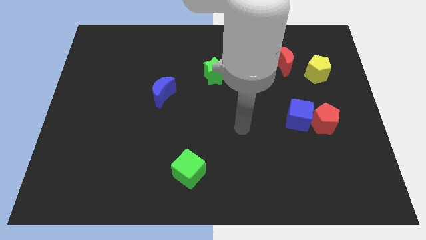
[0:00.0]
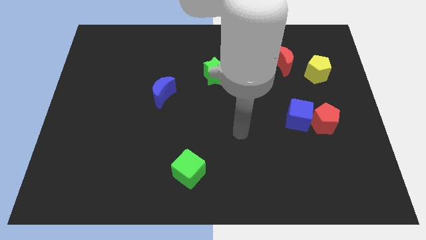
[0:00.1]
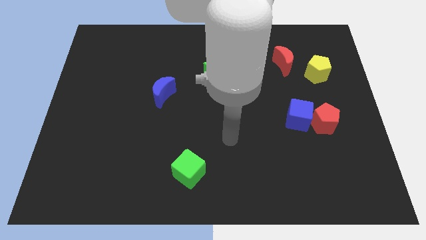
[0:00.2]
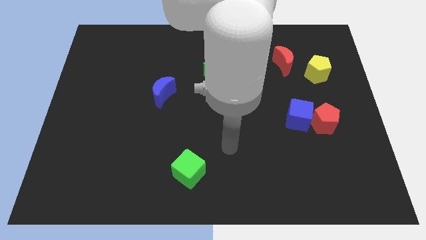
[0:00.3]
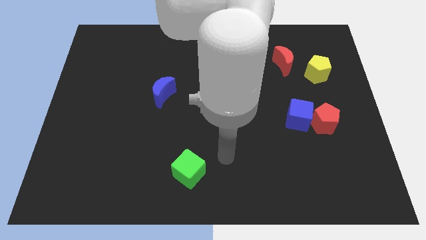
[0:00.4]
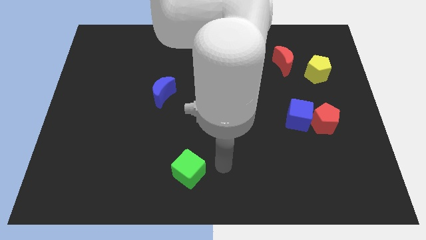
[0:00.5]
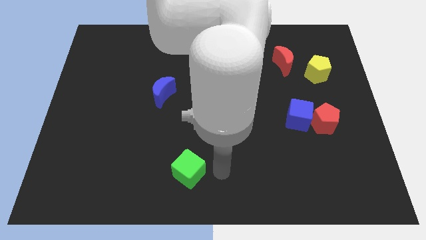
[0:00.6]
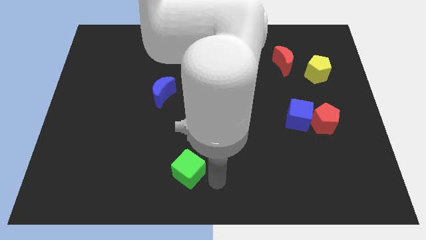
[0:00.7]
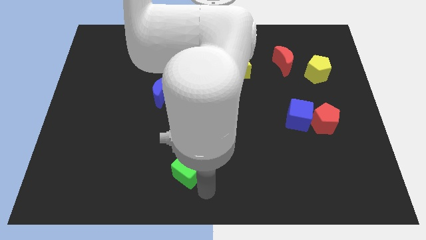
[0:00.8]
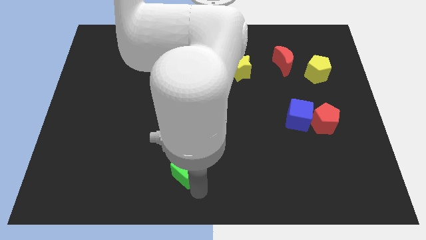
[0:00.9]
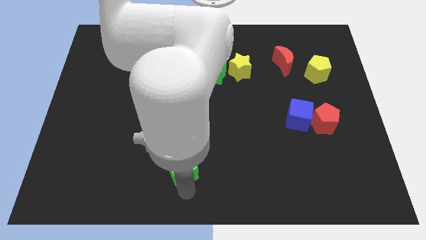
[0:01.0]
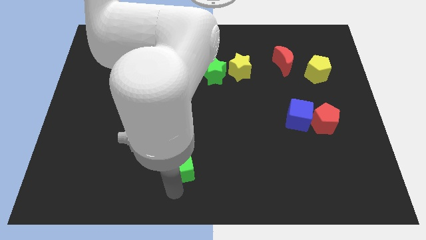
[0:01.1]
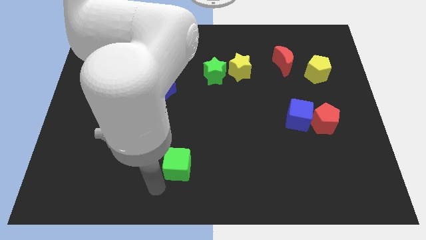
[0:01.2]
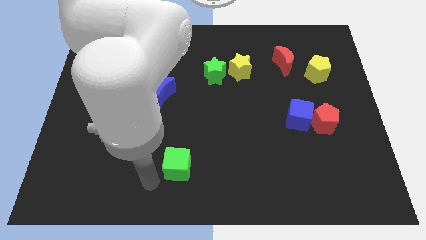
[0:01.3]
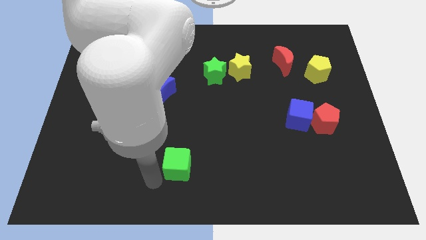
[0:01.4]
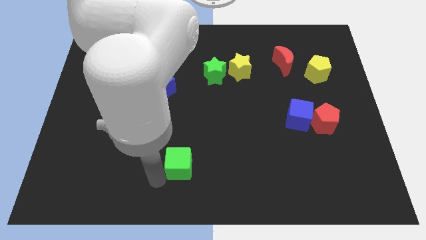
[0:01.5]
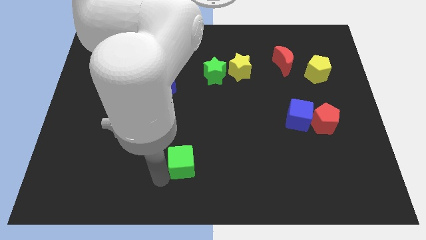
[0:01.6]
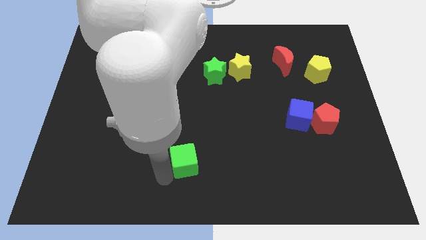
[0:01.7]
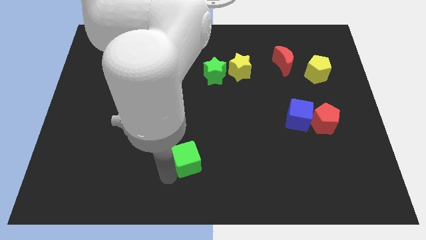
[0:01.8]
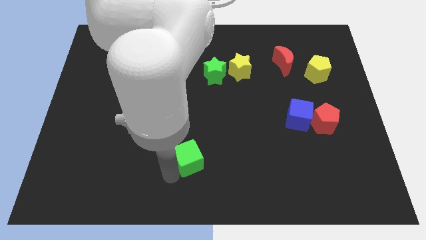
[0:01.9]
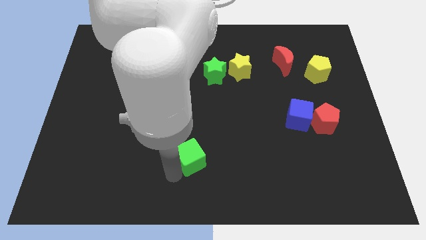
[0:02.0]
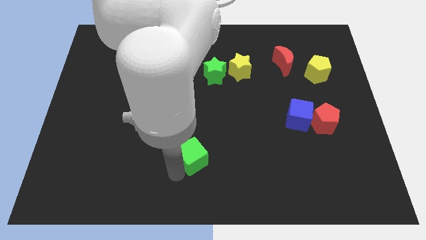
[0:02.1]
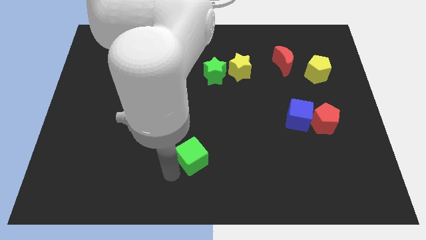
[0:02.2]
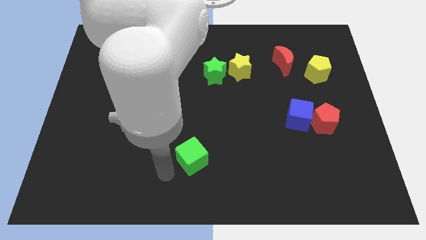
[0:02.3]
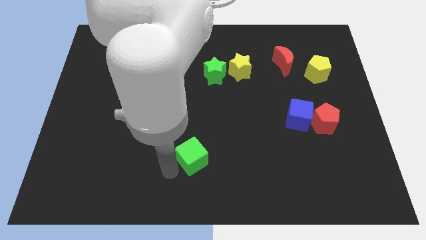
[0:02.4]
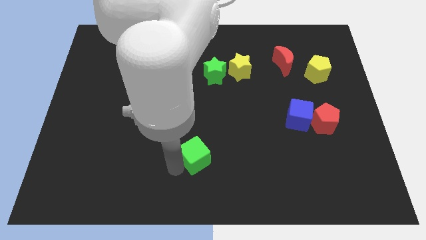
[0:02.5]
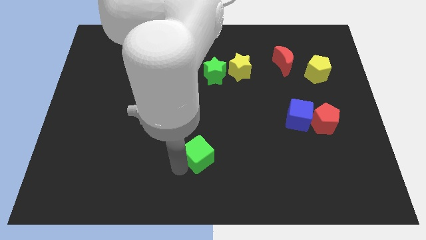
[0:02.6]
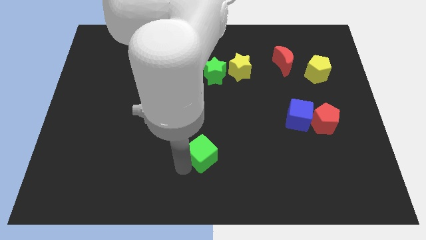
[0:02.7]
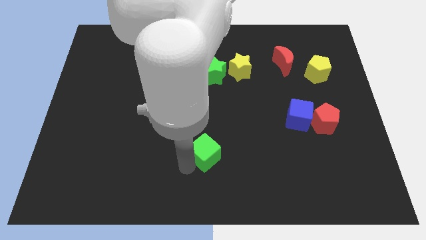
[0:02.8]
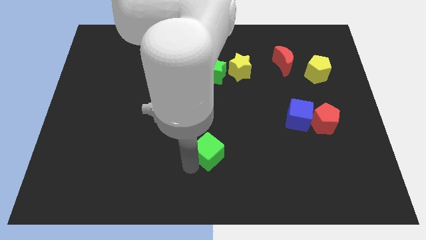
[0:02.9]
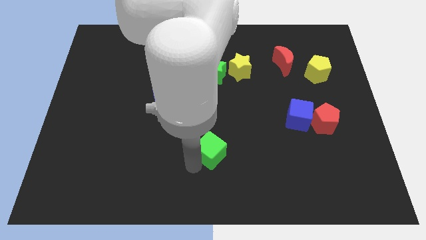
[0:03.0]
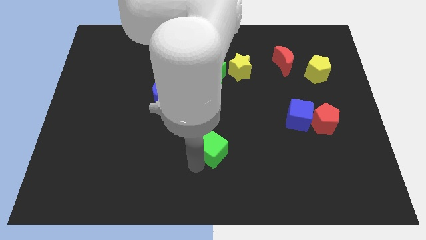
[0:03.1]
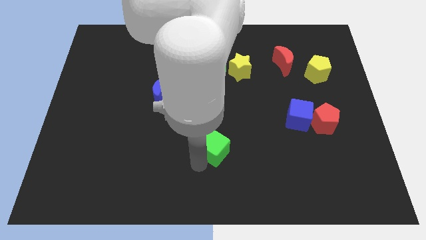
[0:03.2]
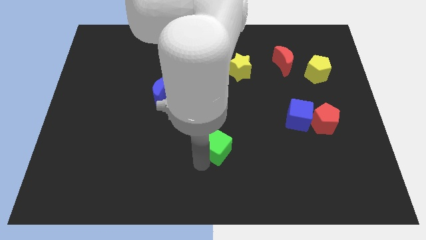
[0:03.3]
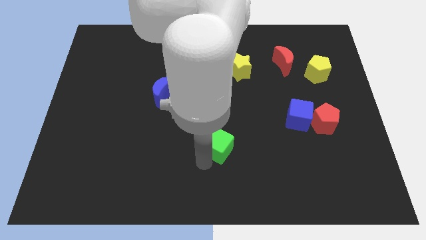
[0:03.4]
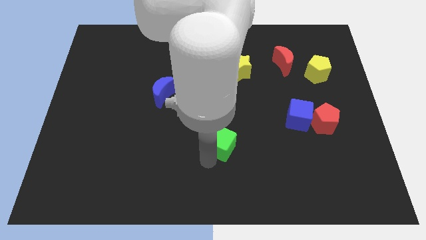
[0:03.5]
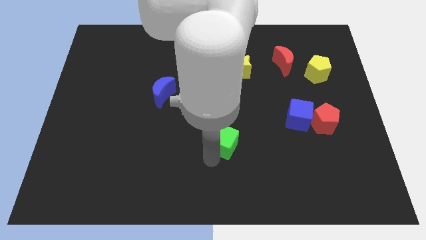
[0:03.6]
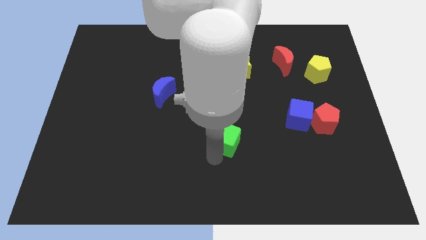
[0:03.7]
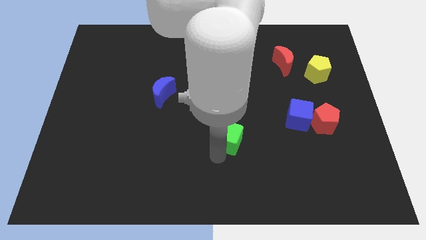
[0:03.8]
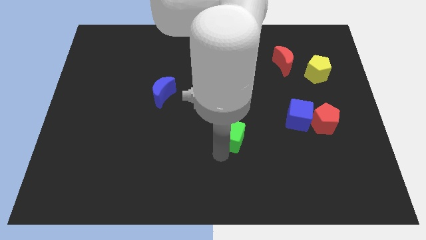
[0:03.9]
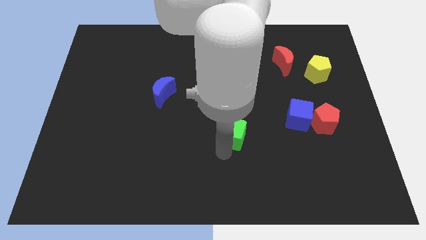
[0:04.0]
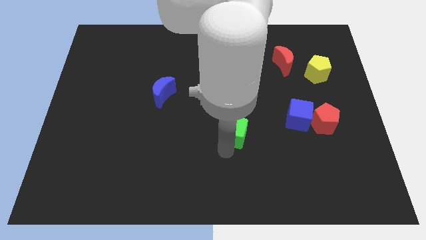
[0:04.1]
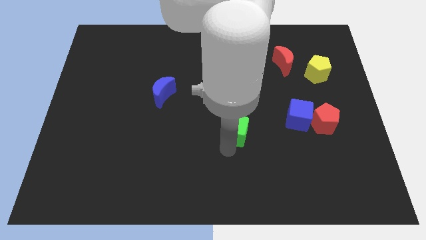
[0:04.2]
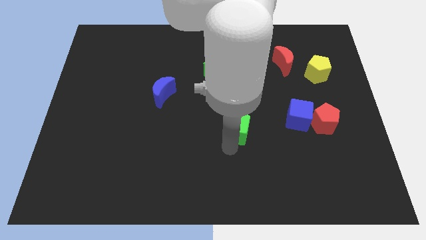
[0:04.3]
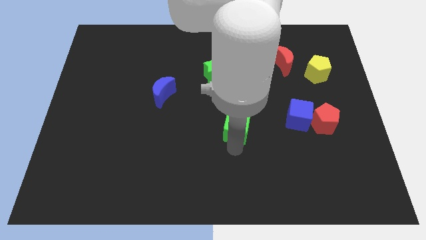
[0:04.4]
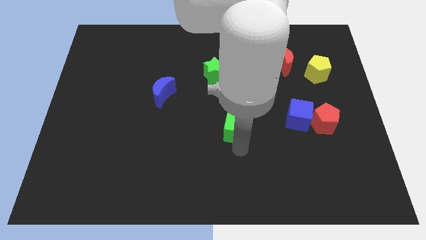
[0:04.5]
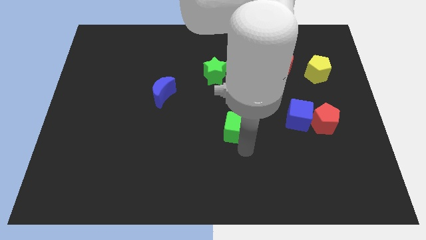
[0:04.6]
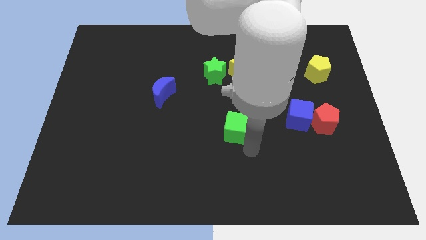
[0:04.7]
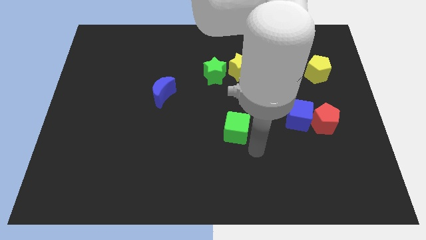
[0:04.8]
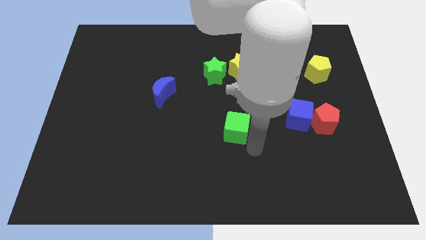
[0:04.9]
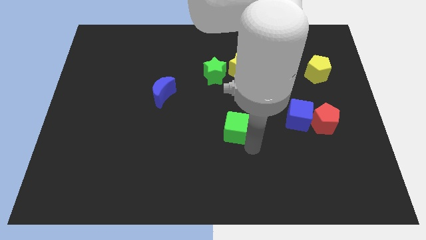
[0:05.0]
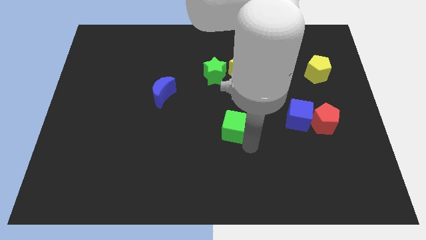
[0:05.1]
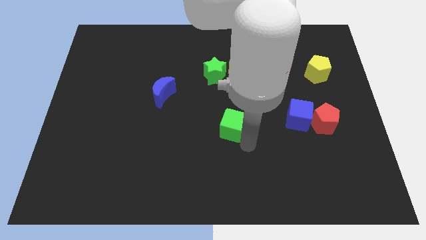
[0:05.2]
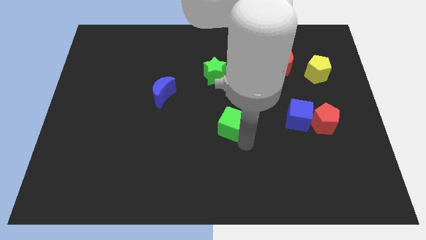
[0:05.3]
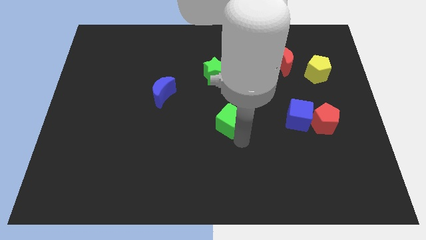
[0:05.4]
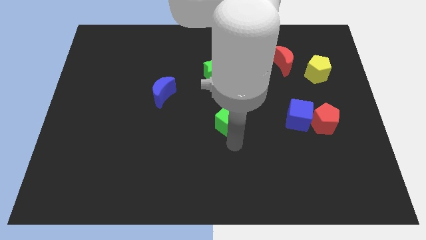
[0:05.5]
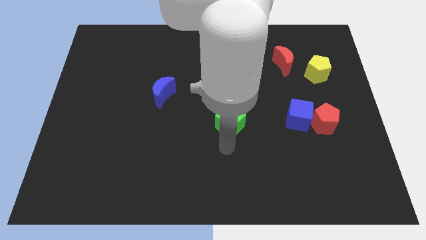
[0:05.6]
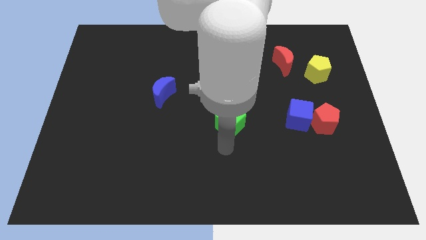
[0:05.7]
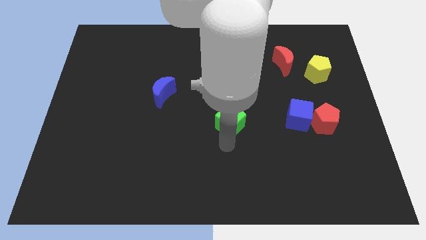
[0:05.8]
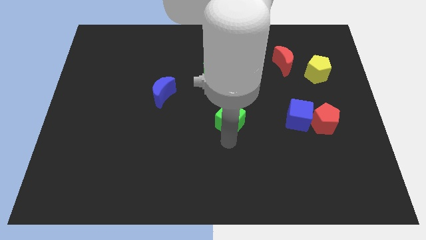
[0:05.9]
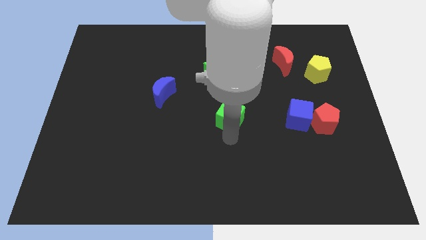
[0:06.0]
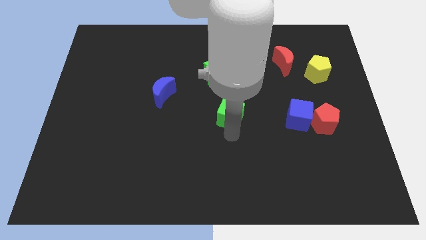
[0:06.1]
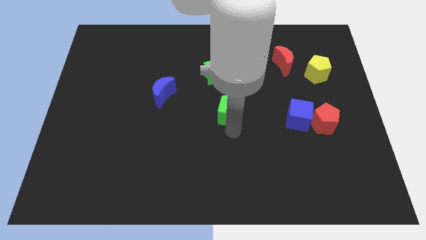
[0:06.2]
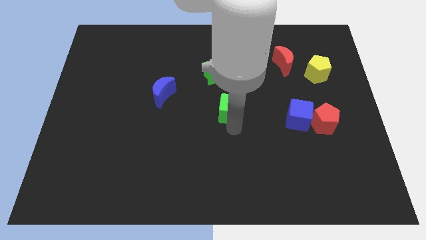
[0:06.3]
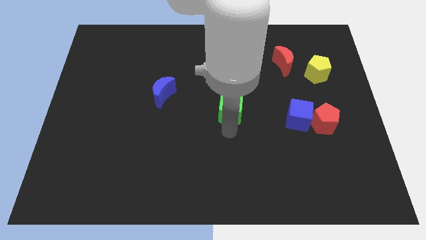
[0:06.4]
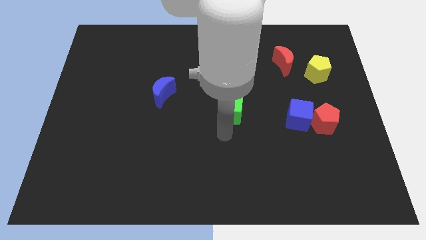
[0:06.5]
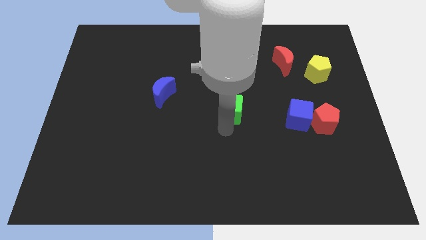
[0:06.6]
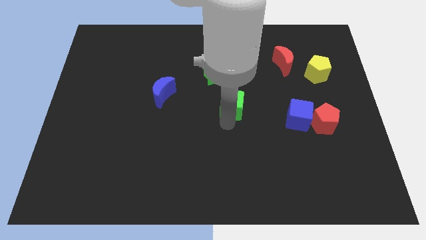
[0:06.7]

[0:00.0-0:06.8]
push the green cube to the bottom right of the green star
